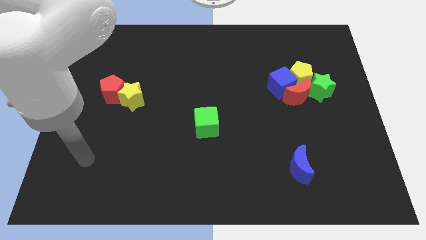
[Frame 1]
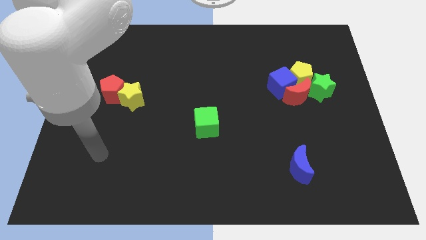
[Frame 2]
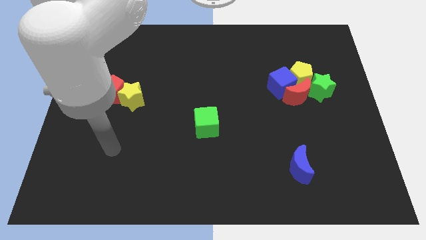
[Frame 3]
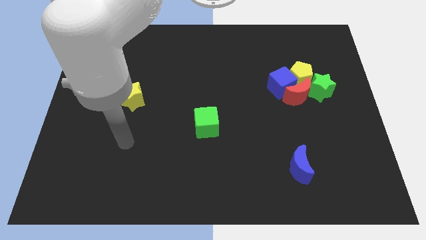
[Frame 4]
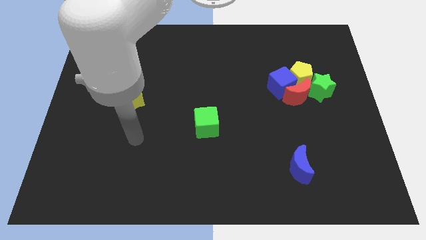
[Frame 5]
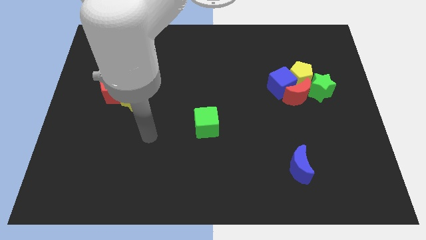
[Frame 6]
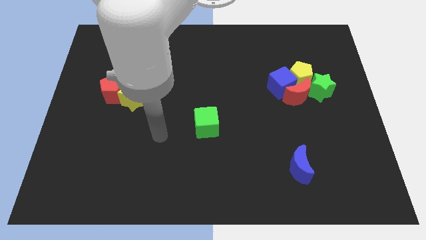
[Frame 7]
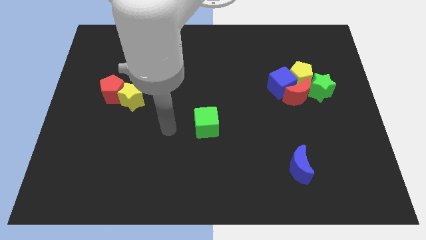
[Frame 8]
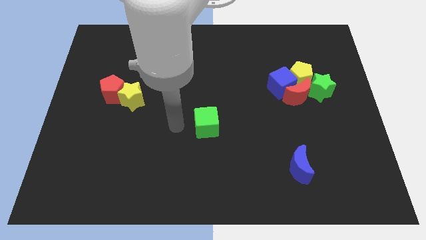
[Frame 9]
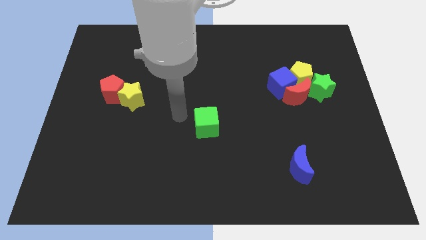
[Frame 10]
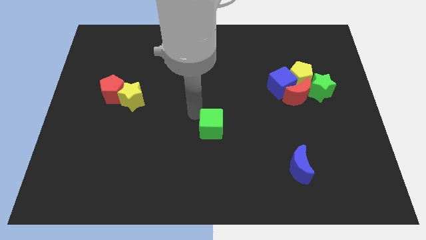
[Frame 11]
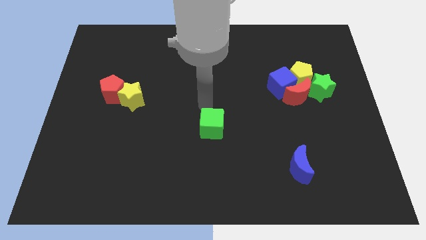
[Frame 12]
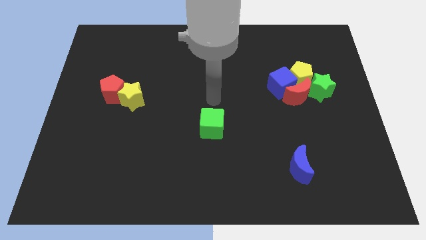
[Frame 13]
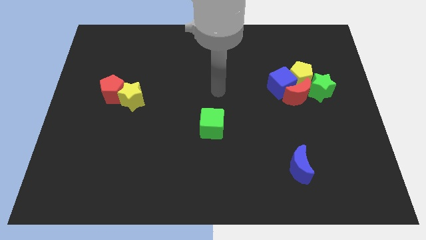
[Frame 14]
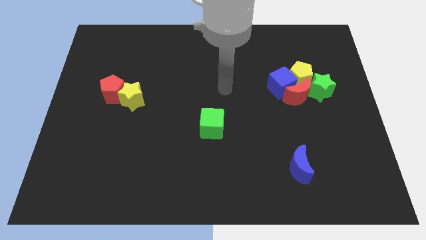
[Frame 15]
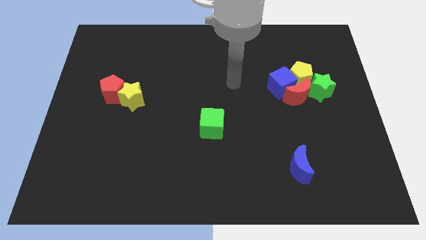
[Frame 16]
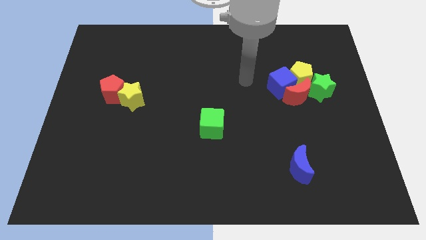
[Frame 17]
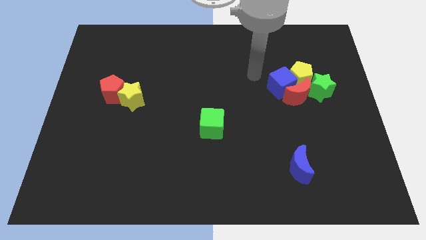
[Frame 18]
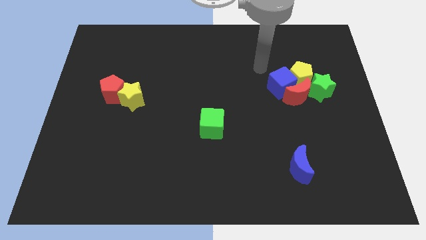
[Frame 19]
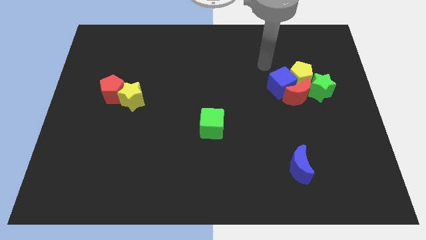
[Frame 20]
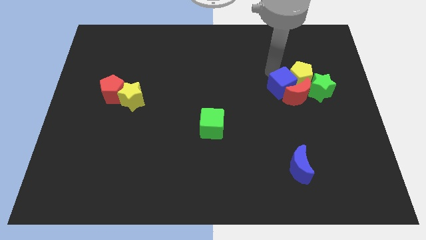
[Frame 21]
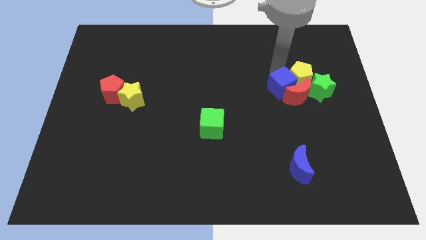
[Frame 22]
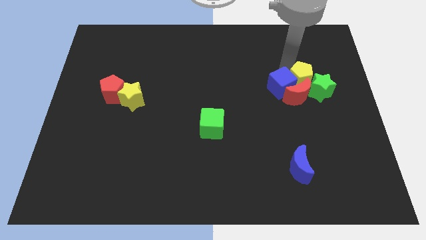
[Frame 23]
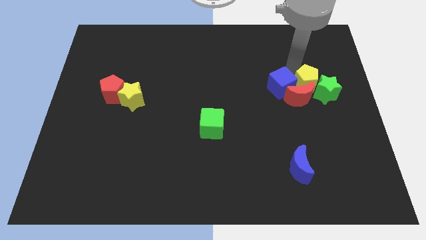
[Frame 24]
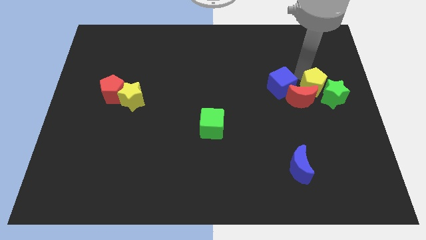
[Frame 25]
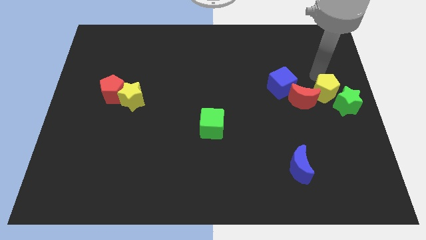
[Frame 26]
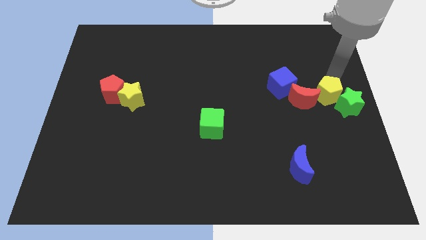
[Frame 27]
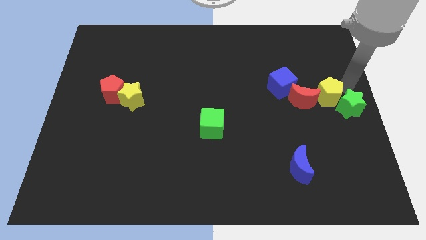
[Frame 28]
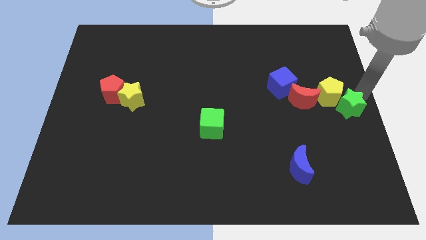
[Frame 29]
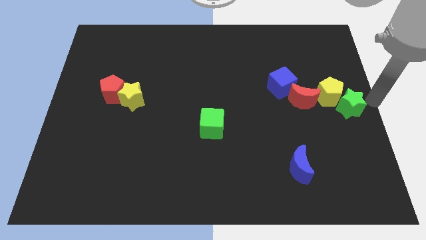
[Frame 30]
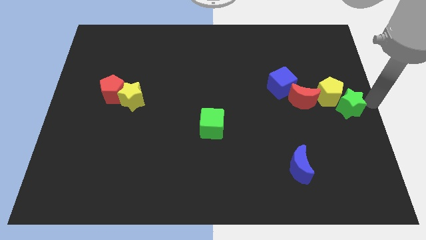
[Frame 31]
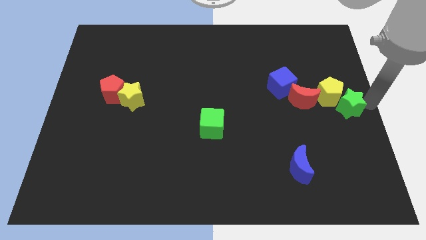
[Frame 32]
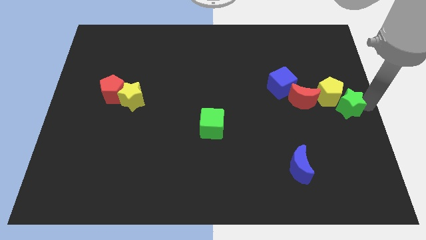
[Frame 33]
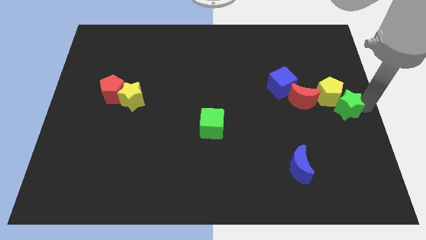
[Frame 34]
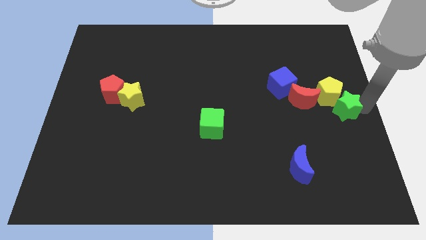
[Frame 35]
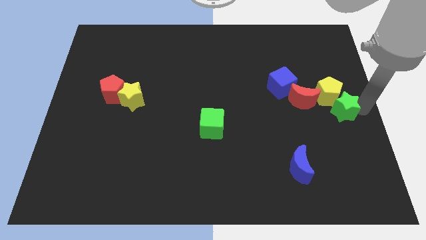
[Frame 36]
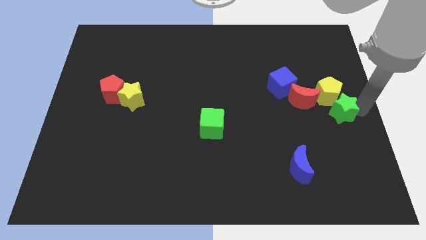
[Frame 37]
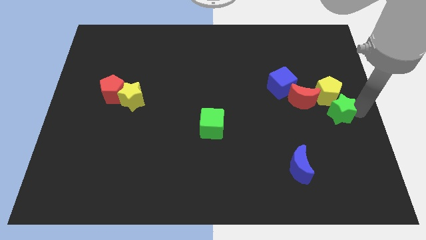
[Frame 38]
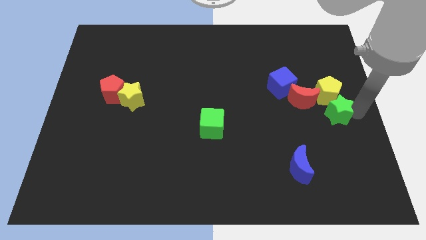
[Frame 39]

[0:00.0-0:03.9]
move the green star downwards slightly

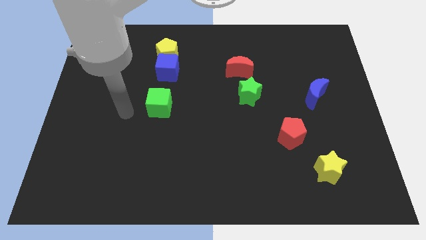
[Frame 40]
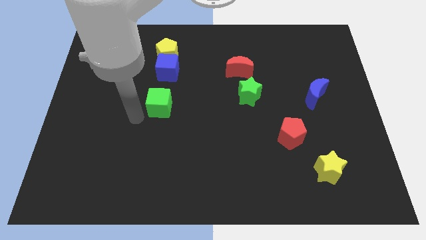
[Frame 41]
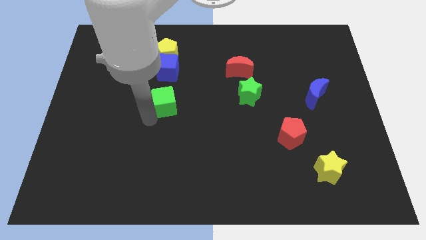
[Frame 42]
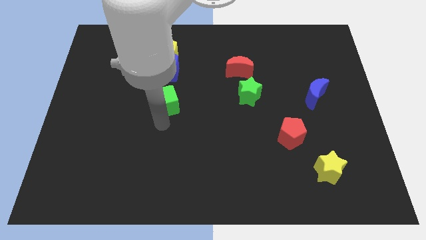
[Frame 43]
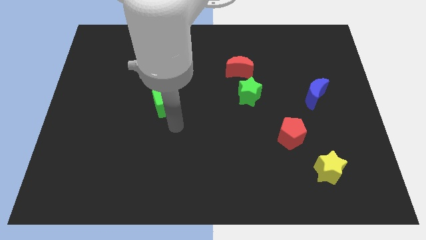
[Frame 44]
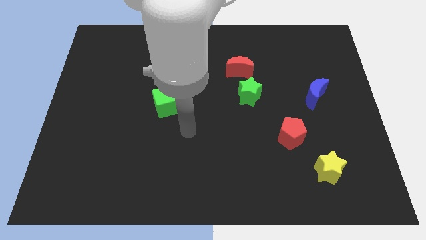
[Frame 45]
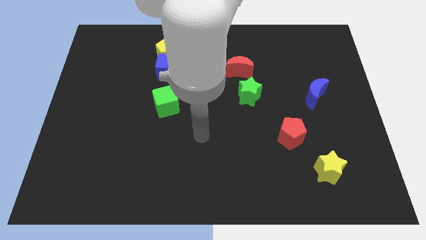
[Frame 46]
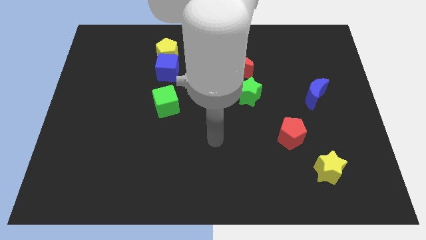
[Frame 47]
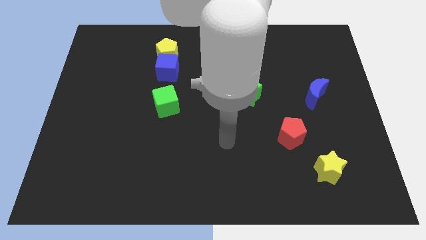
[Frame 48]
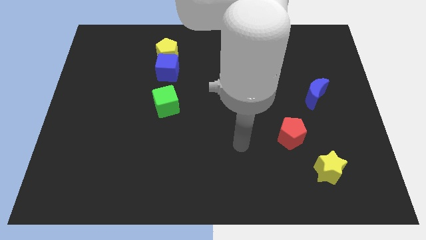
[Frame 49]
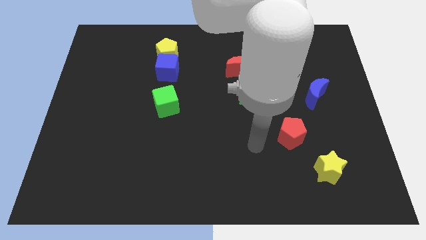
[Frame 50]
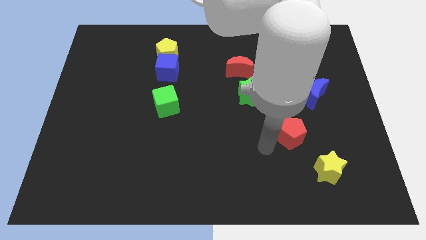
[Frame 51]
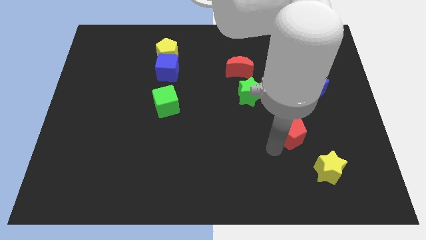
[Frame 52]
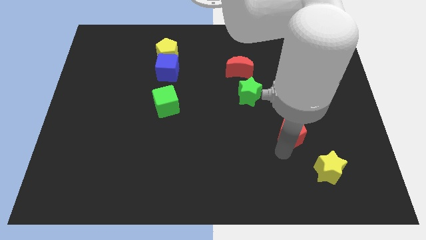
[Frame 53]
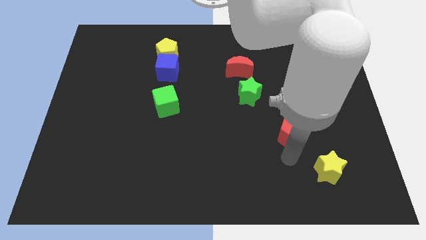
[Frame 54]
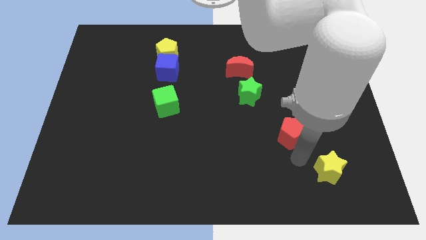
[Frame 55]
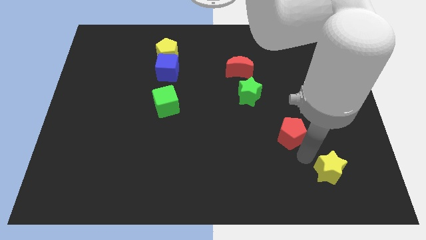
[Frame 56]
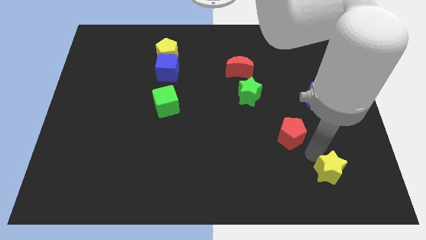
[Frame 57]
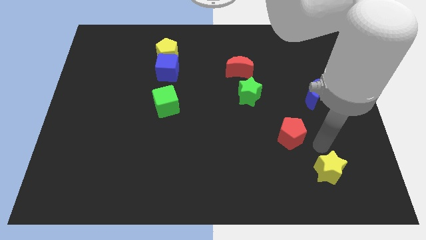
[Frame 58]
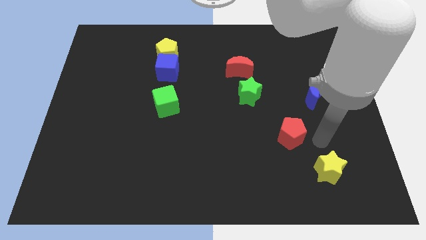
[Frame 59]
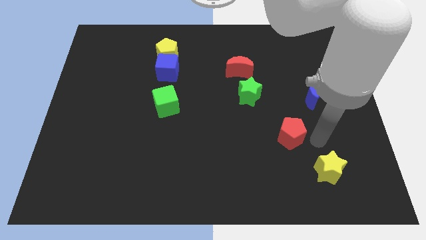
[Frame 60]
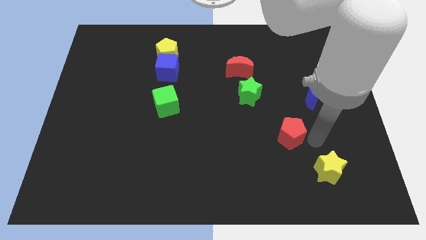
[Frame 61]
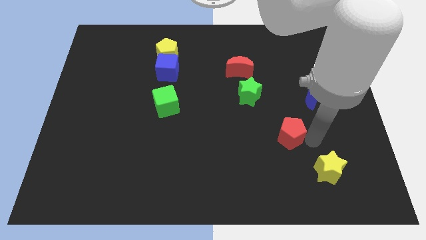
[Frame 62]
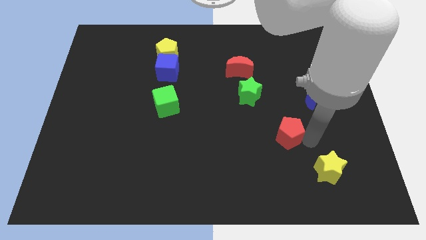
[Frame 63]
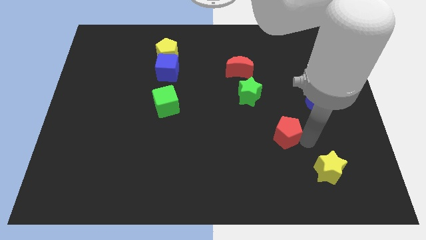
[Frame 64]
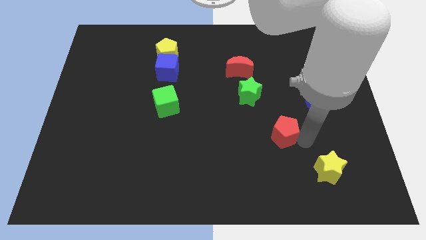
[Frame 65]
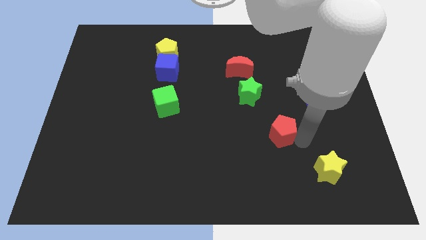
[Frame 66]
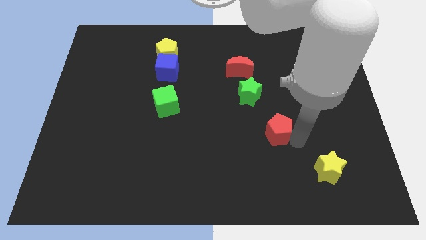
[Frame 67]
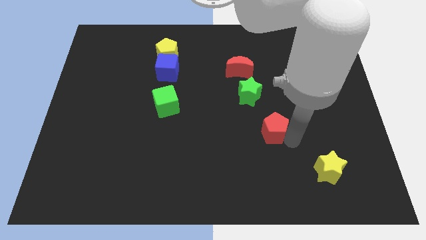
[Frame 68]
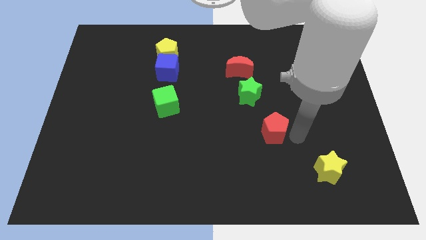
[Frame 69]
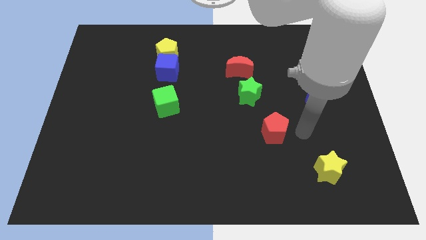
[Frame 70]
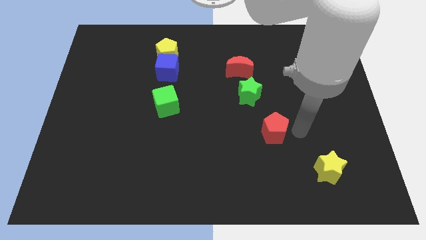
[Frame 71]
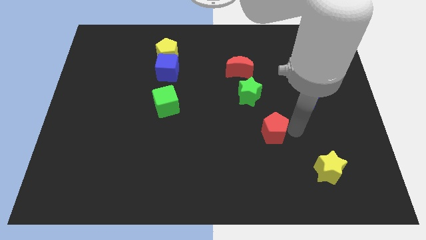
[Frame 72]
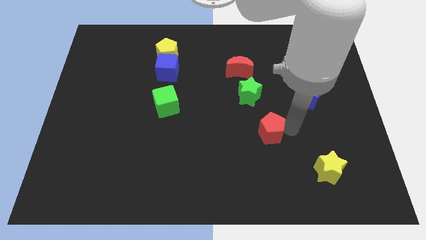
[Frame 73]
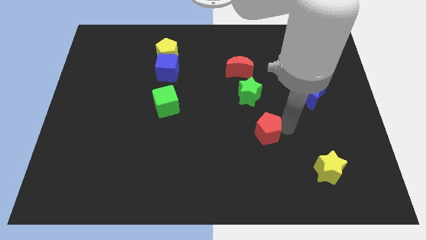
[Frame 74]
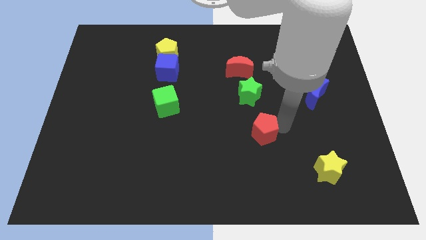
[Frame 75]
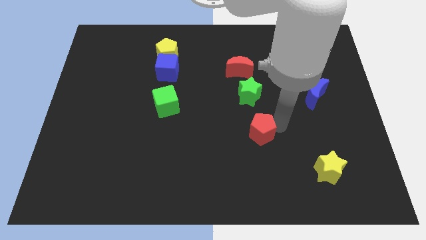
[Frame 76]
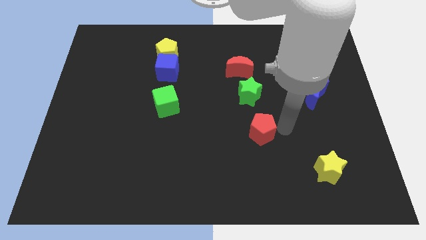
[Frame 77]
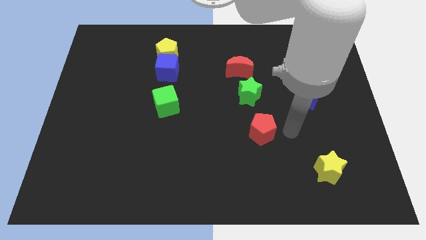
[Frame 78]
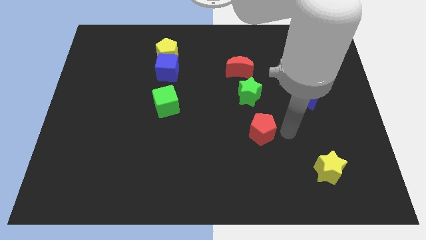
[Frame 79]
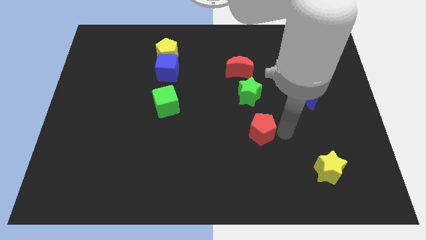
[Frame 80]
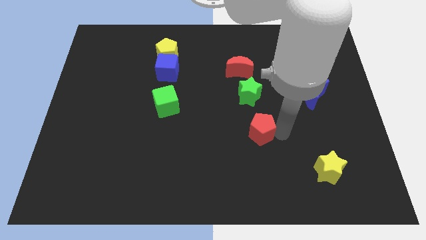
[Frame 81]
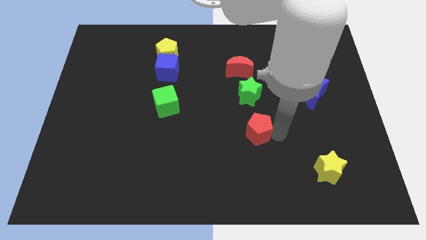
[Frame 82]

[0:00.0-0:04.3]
slightly move the red pentagon to the left

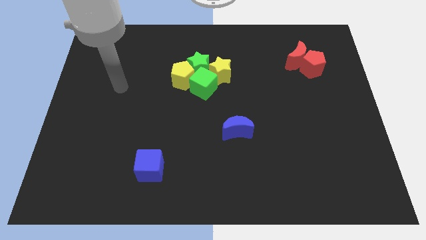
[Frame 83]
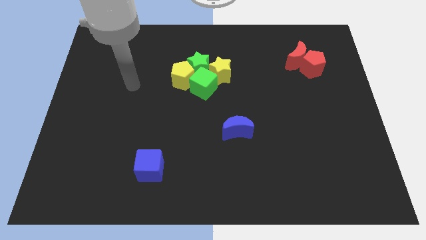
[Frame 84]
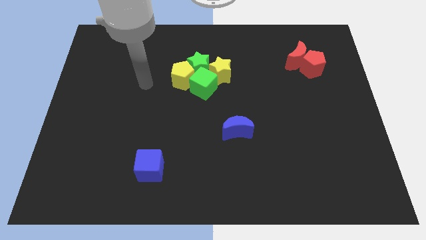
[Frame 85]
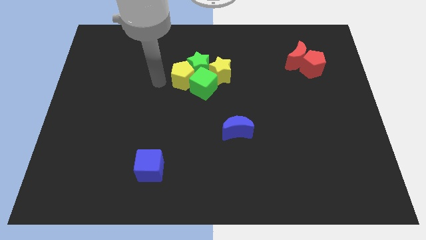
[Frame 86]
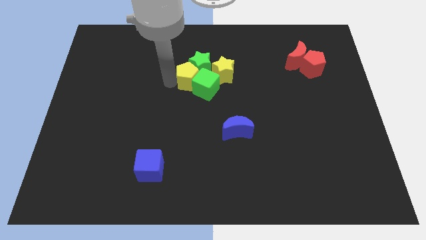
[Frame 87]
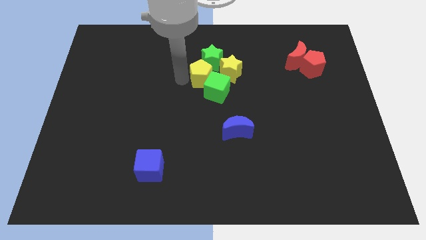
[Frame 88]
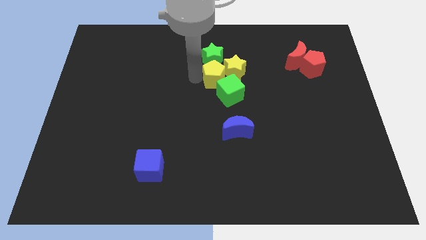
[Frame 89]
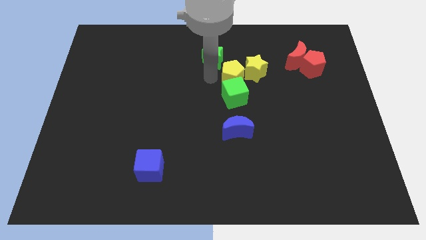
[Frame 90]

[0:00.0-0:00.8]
move the green cube down and right a bit
